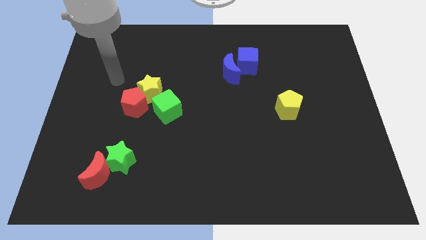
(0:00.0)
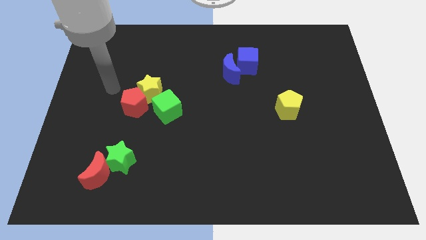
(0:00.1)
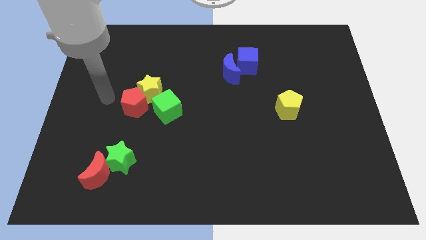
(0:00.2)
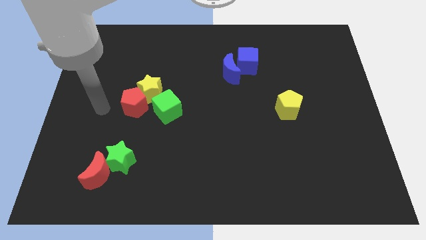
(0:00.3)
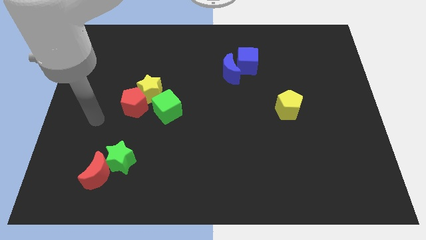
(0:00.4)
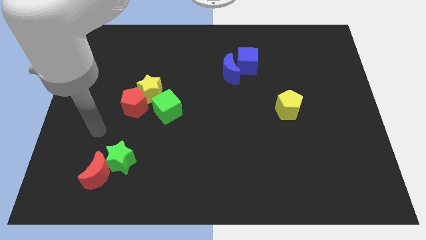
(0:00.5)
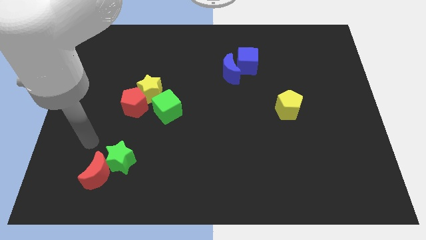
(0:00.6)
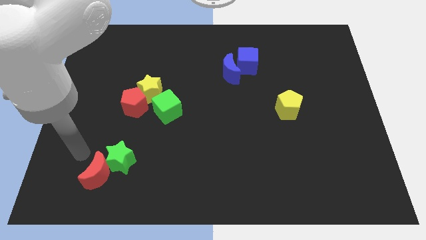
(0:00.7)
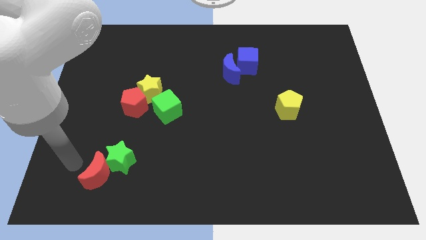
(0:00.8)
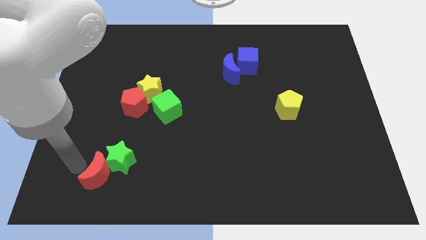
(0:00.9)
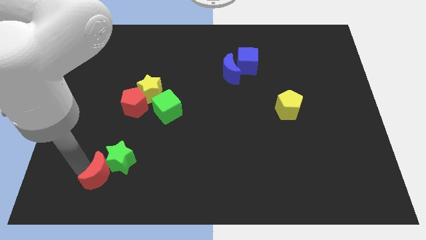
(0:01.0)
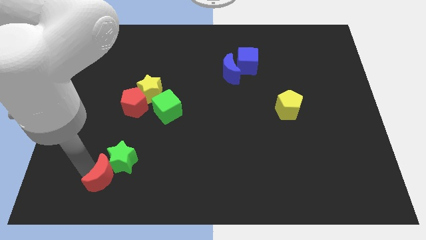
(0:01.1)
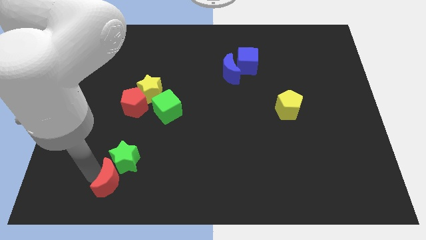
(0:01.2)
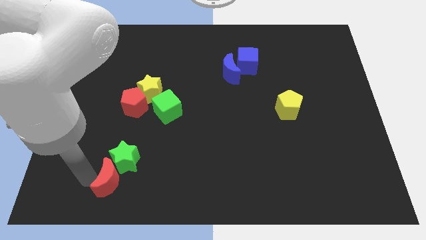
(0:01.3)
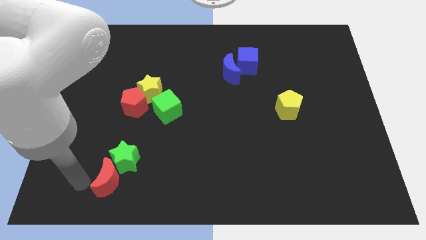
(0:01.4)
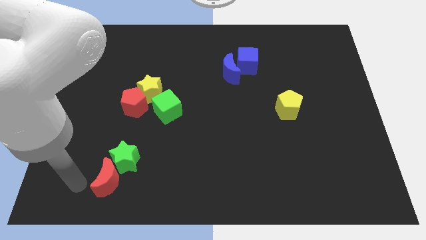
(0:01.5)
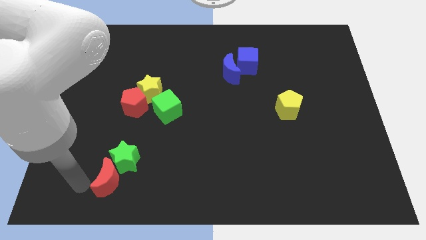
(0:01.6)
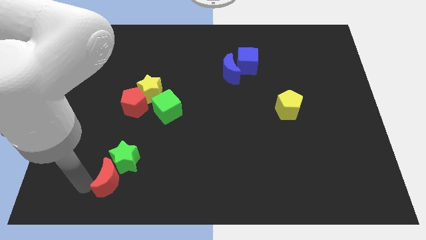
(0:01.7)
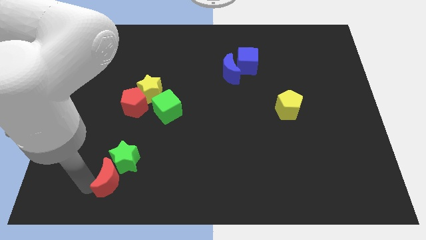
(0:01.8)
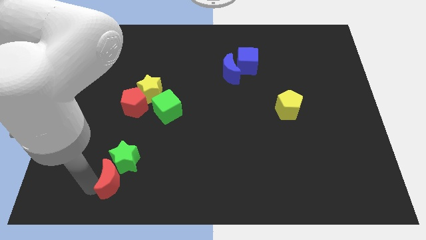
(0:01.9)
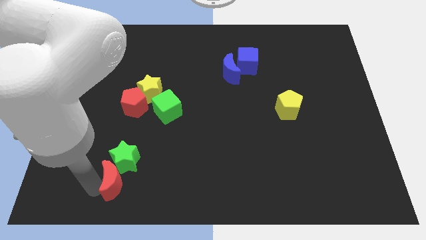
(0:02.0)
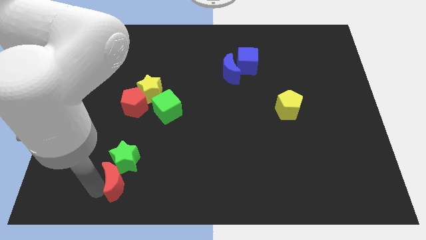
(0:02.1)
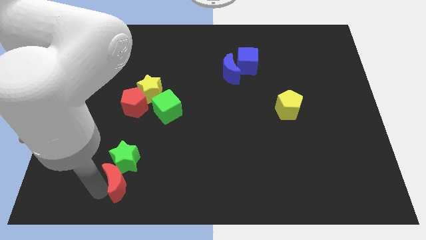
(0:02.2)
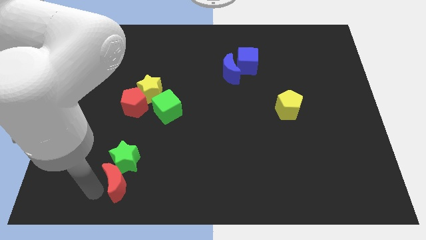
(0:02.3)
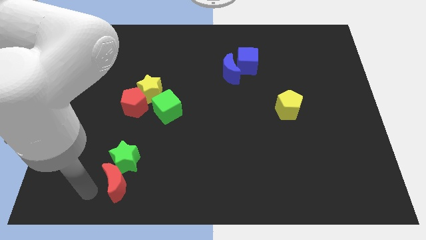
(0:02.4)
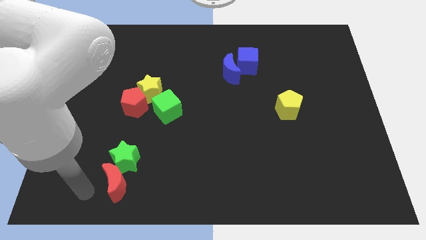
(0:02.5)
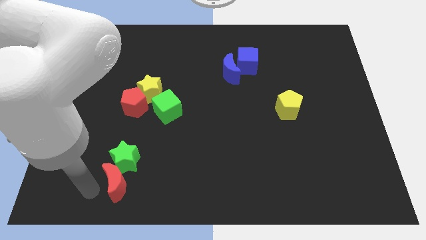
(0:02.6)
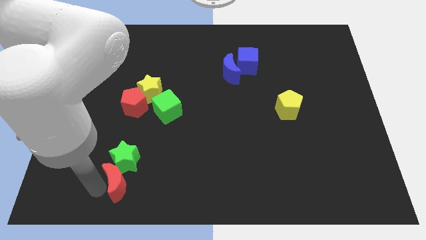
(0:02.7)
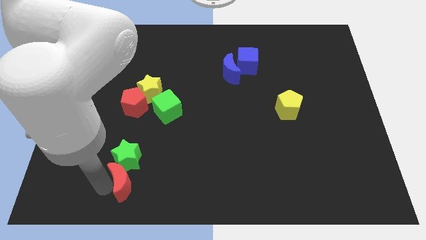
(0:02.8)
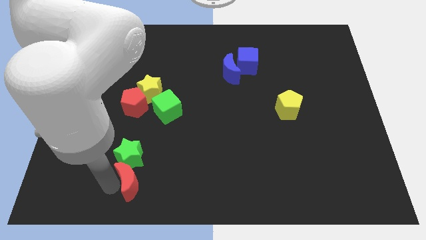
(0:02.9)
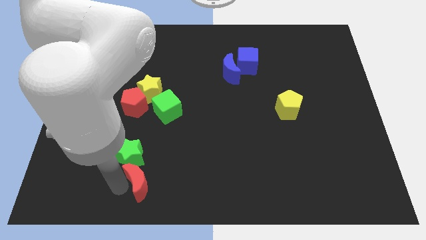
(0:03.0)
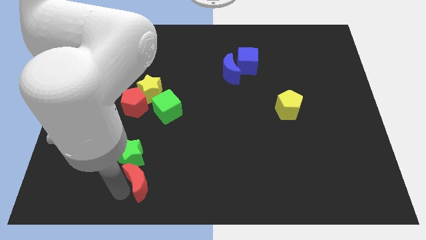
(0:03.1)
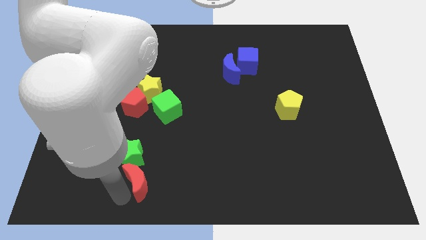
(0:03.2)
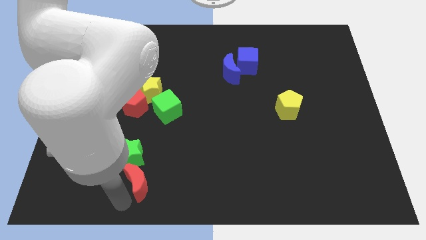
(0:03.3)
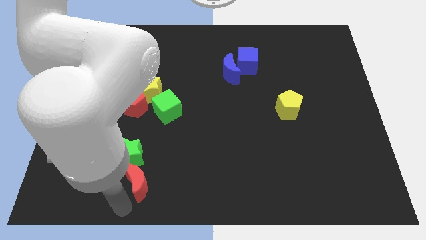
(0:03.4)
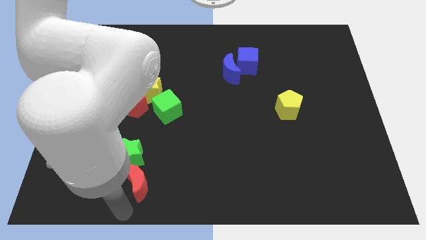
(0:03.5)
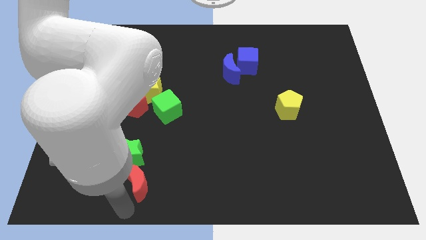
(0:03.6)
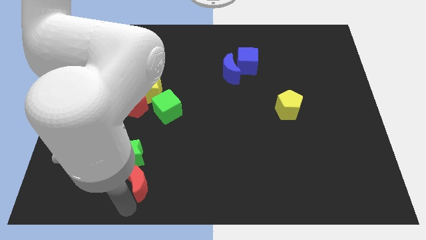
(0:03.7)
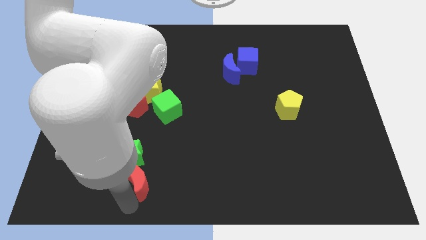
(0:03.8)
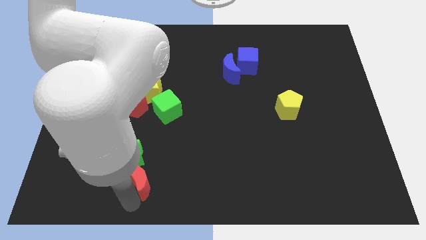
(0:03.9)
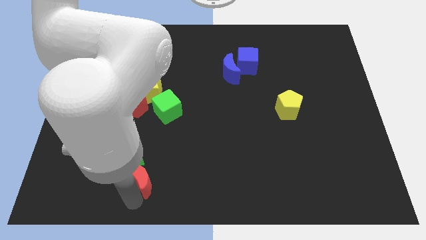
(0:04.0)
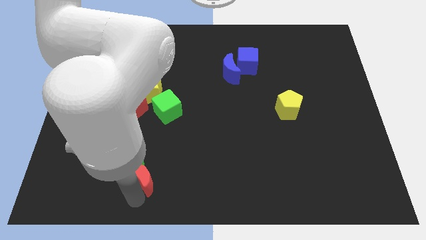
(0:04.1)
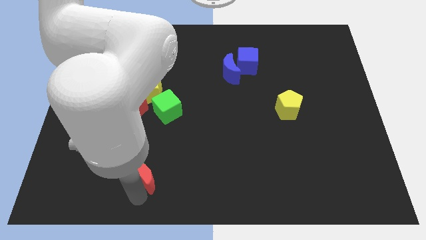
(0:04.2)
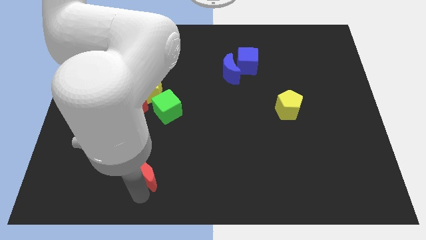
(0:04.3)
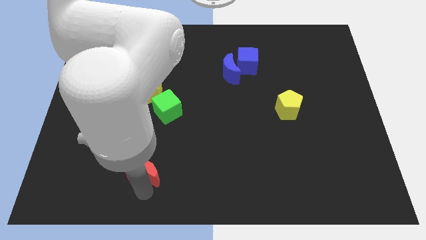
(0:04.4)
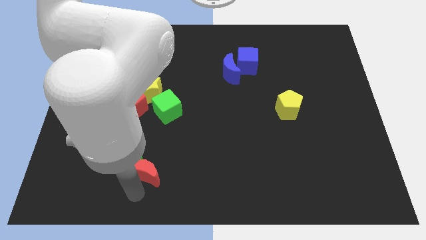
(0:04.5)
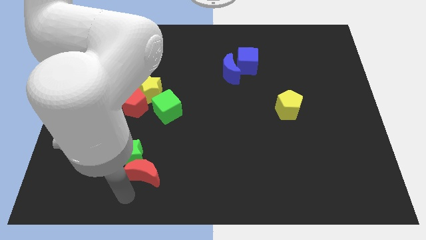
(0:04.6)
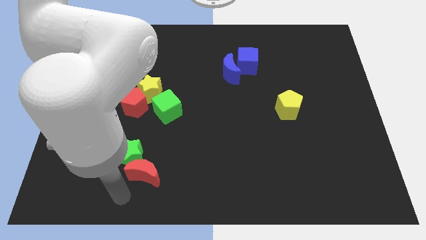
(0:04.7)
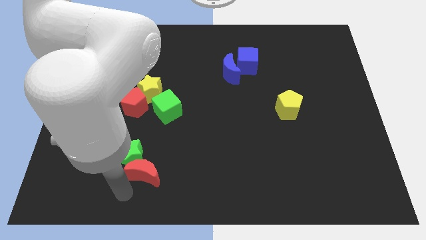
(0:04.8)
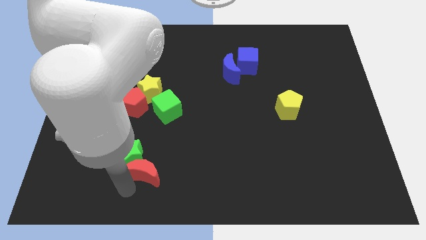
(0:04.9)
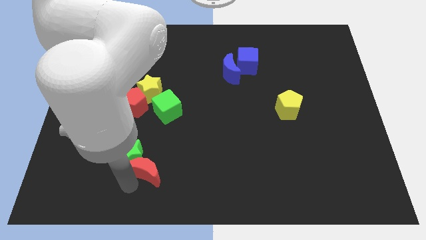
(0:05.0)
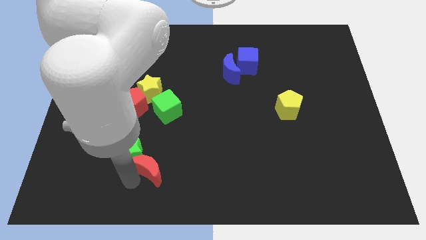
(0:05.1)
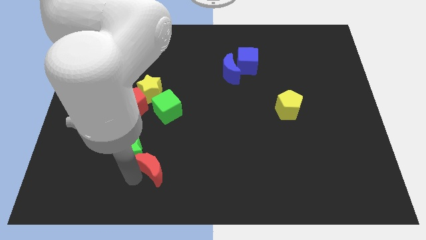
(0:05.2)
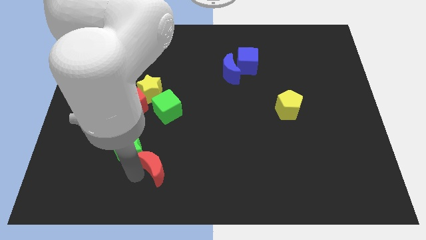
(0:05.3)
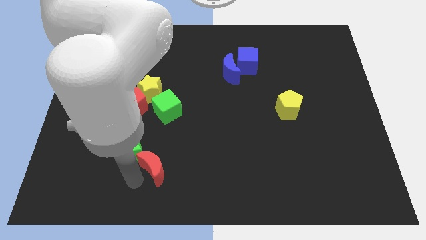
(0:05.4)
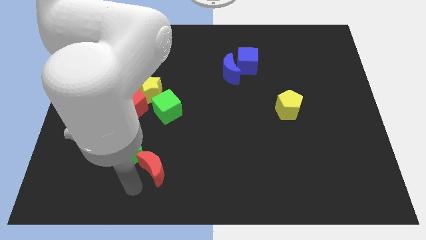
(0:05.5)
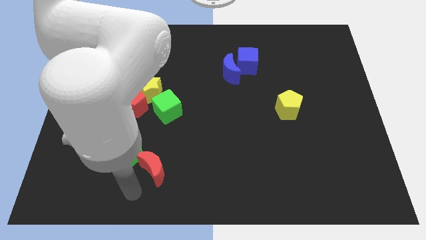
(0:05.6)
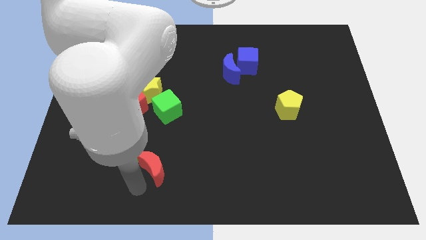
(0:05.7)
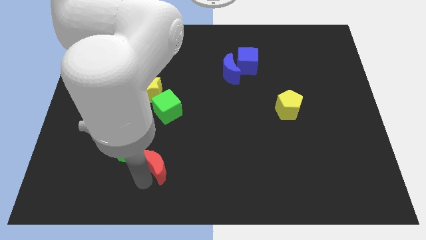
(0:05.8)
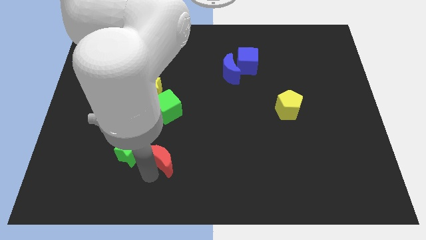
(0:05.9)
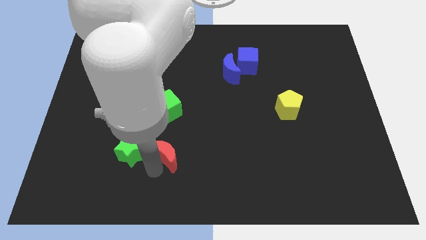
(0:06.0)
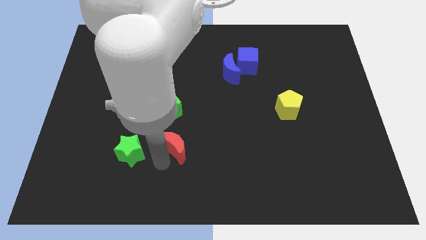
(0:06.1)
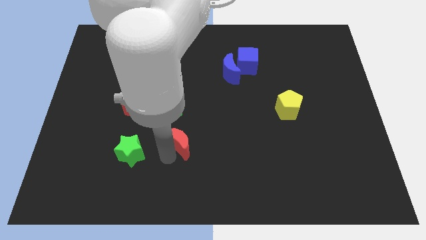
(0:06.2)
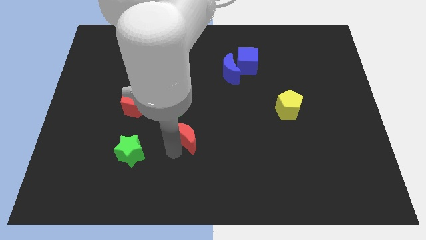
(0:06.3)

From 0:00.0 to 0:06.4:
move the red moon to the center of the board
